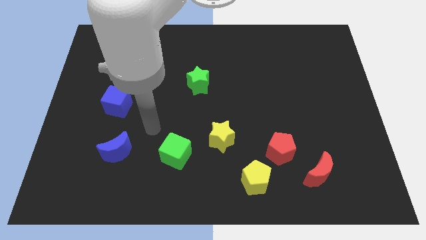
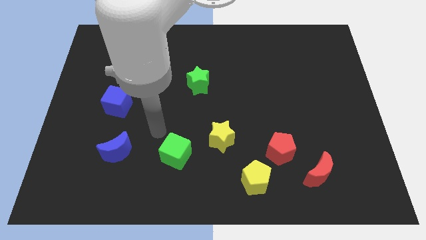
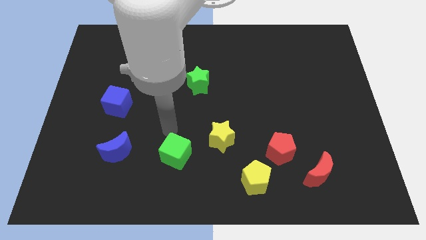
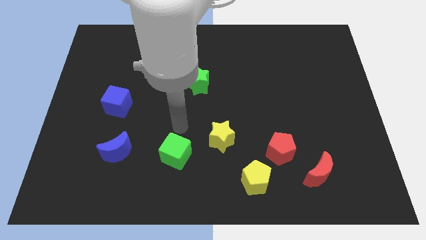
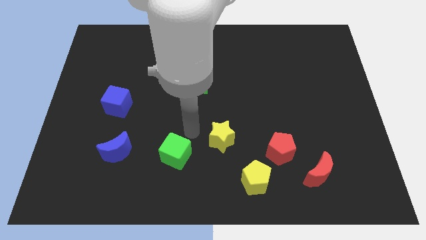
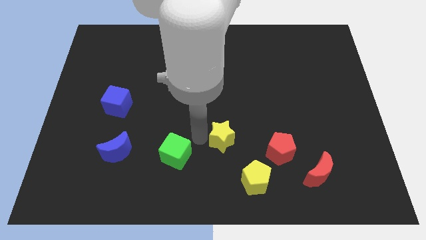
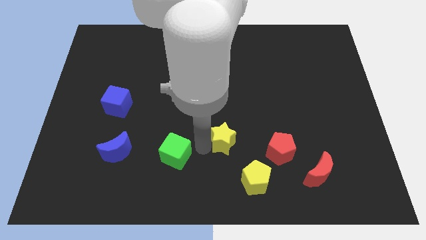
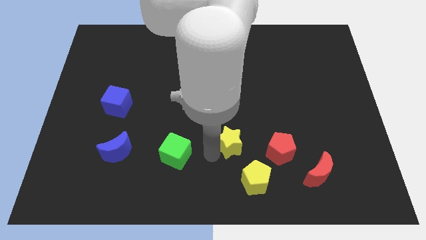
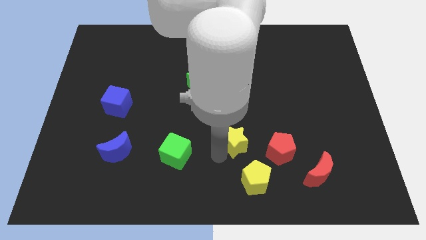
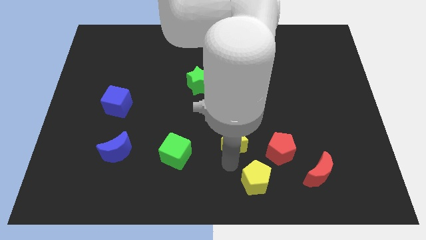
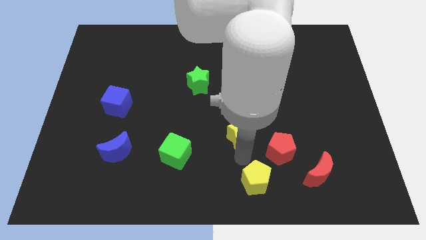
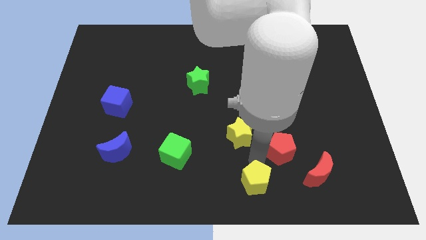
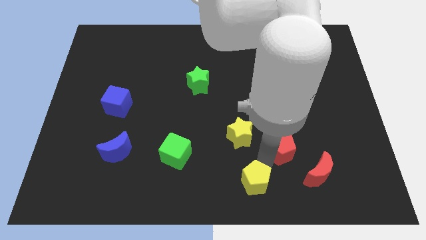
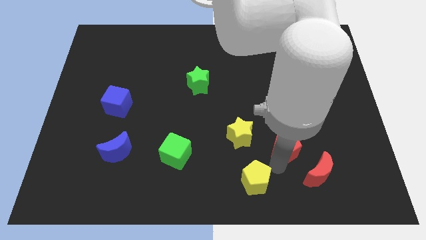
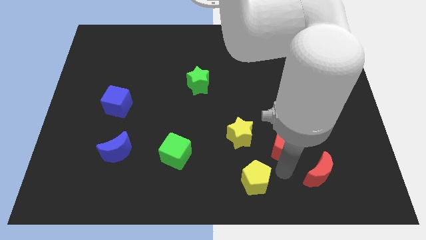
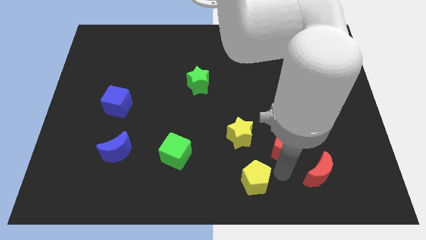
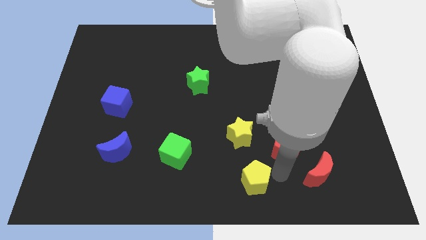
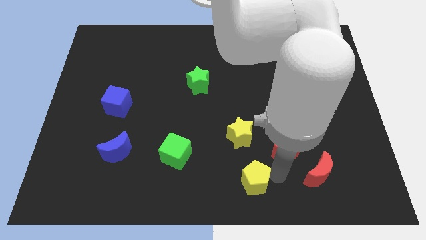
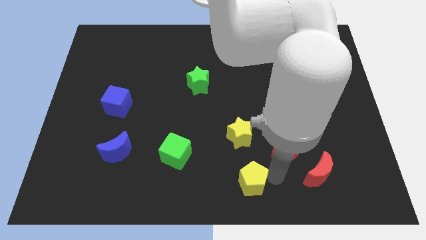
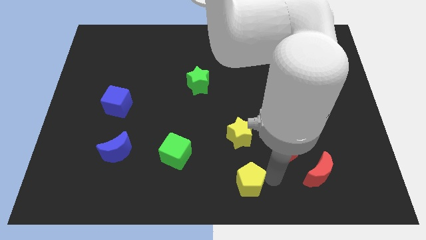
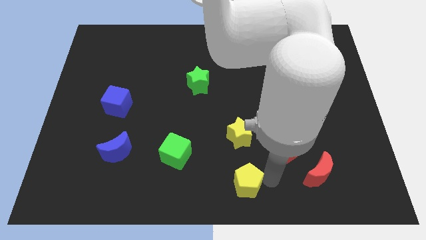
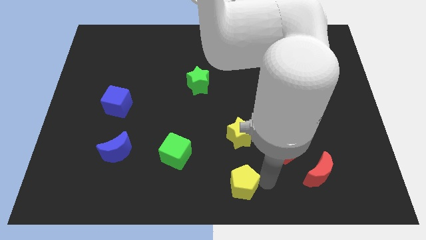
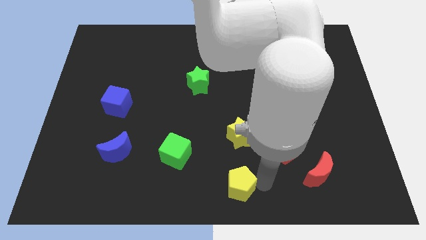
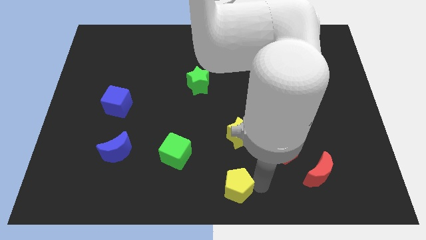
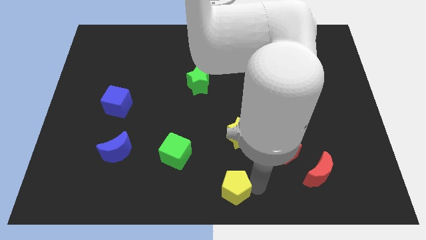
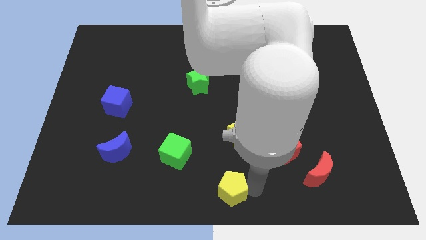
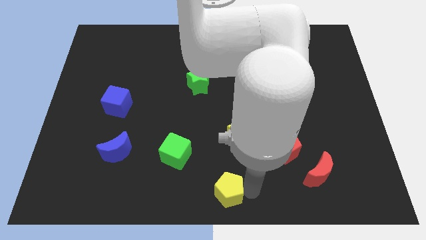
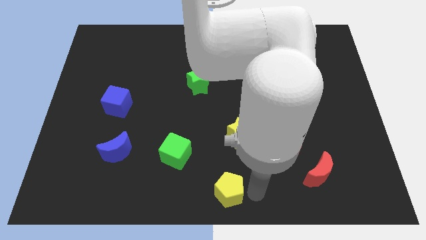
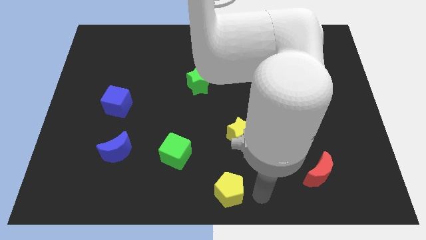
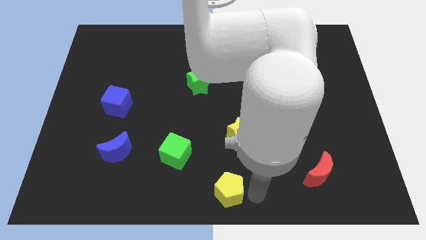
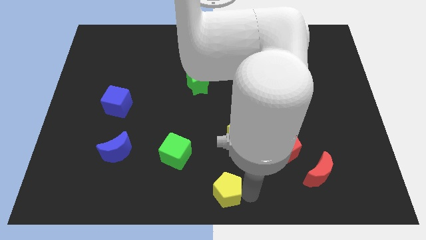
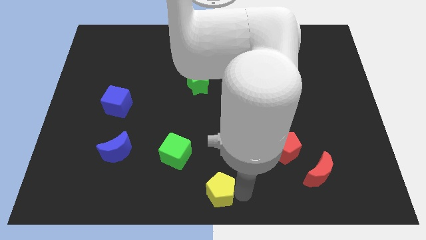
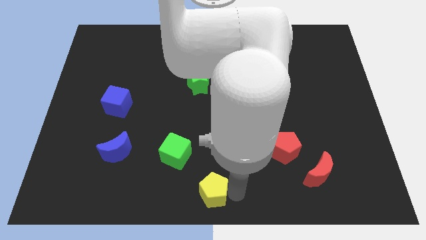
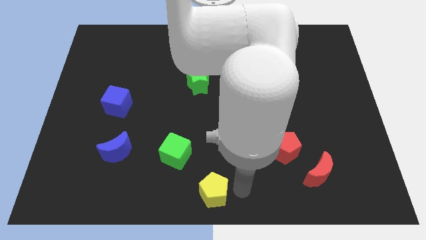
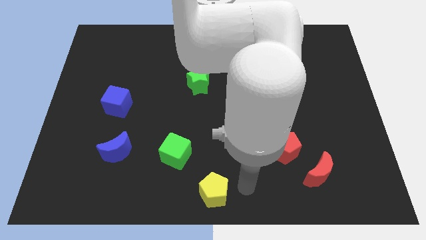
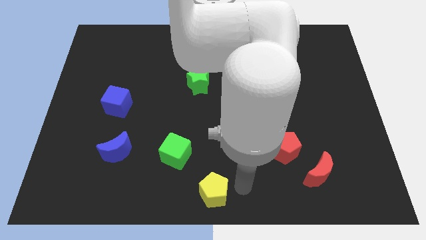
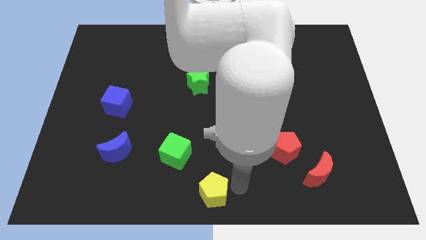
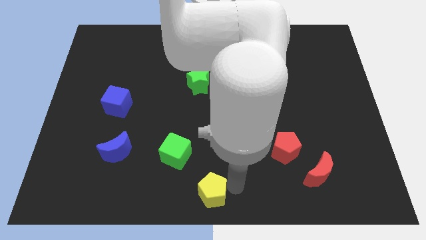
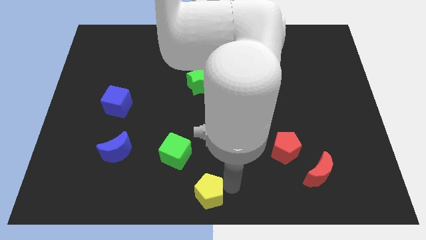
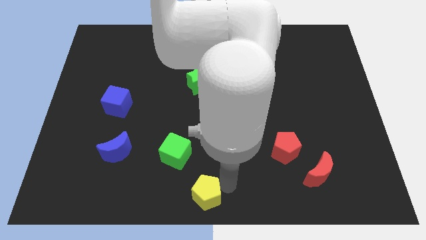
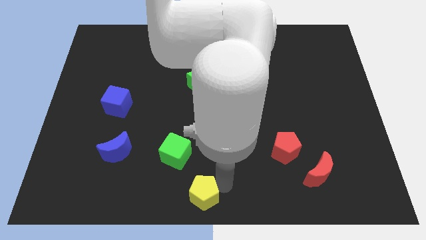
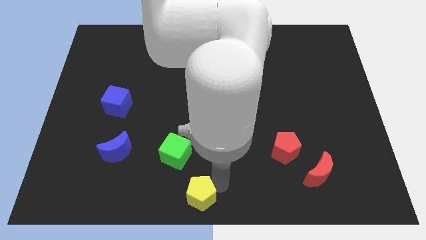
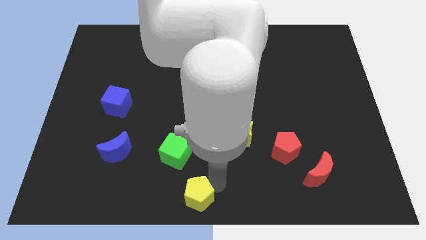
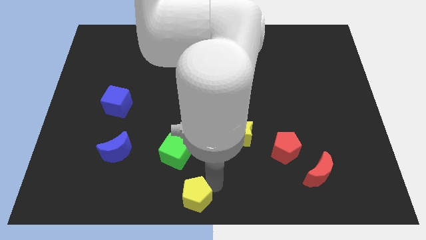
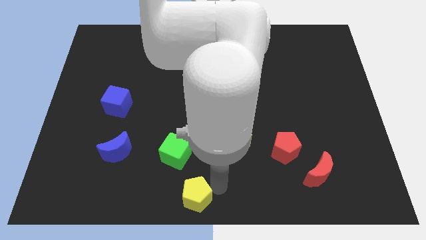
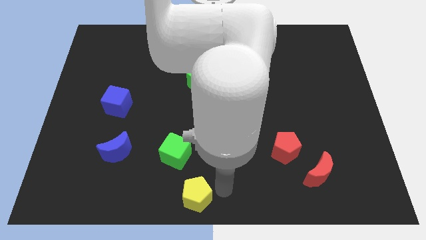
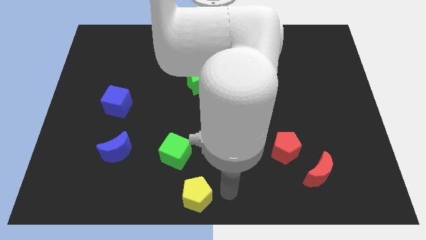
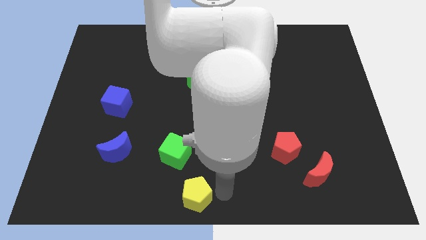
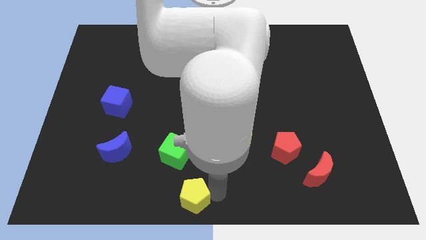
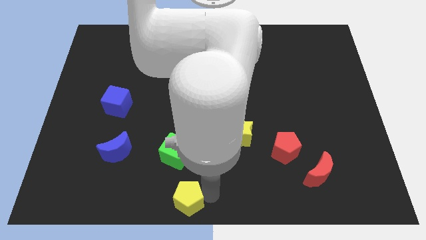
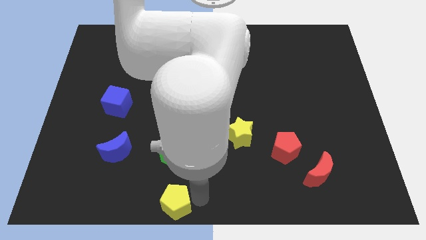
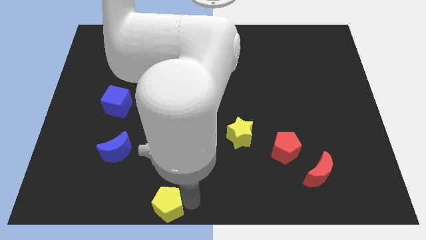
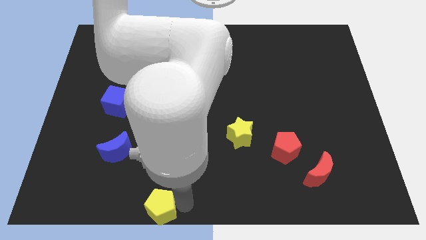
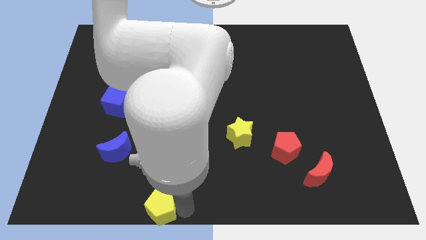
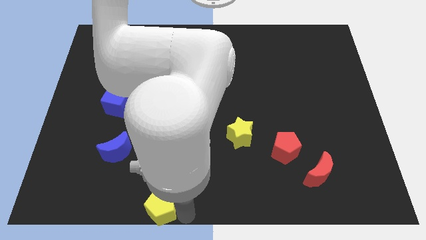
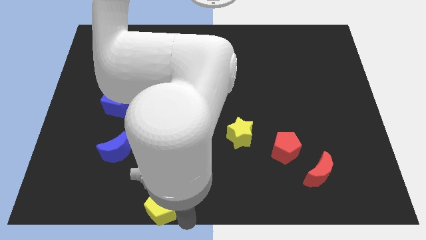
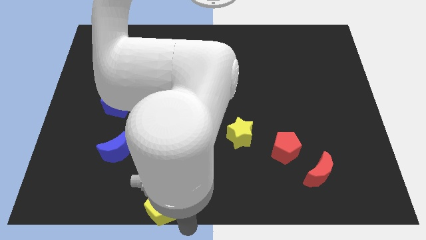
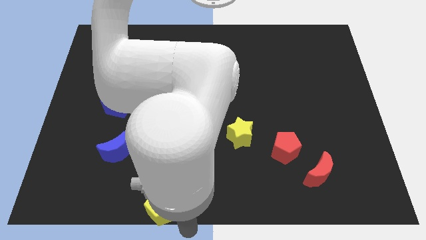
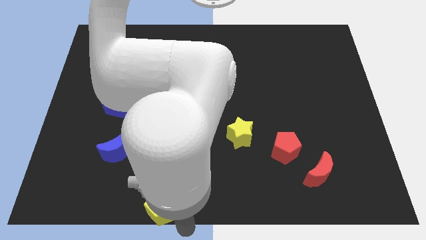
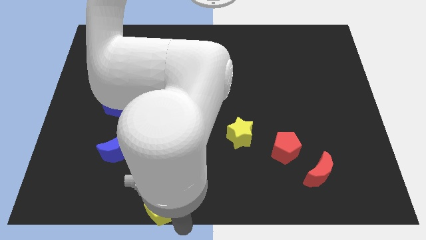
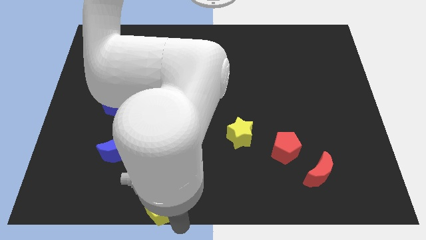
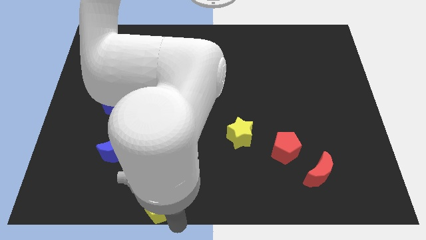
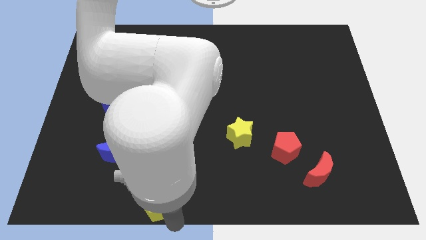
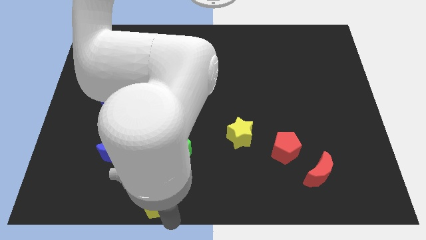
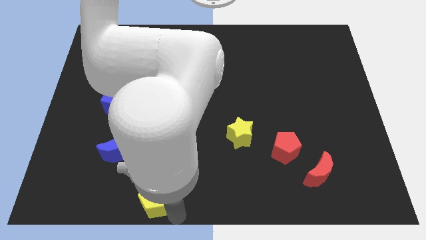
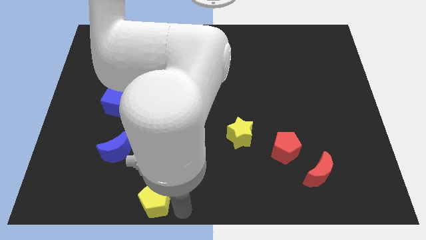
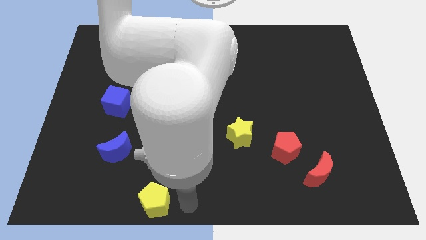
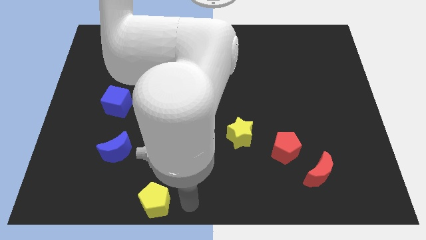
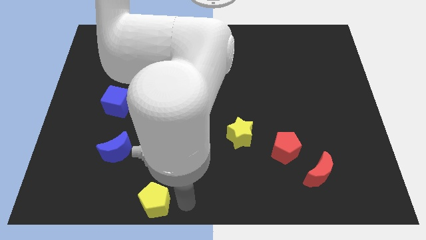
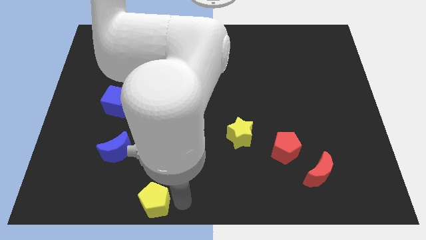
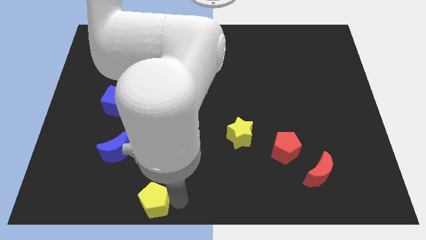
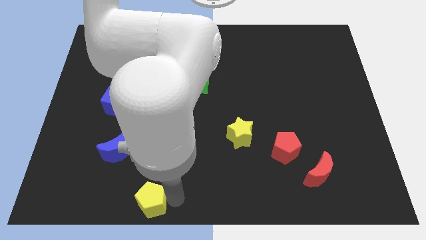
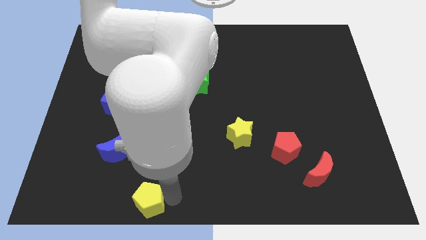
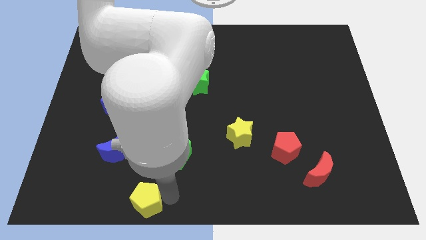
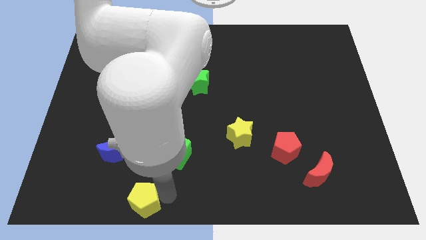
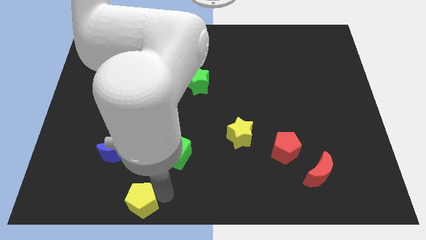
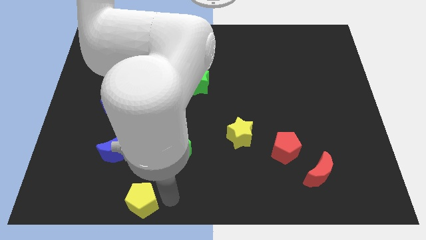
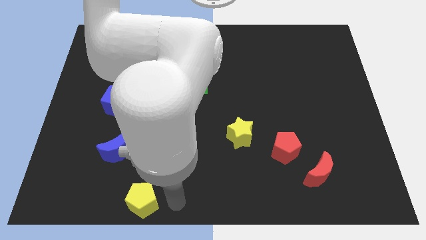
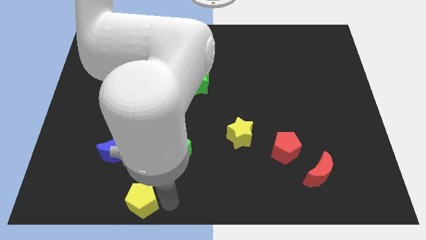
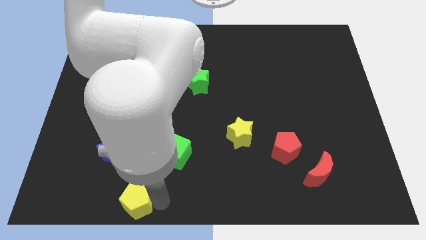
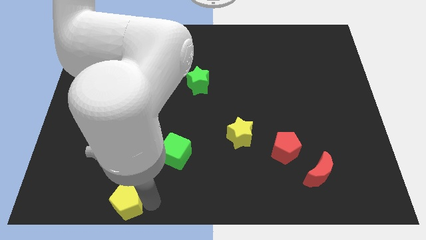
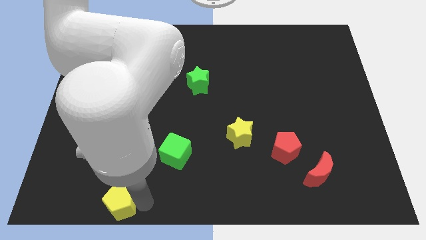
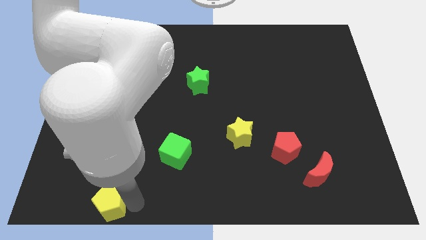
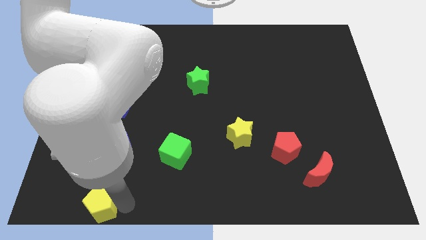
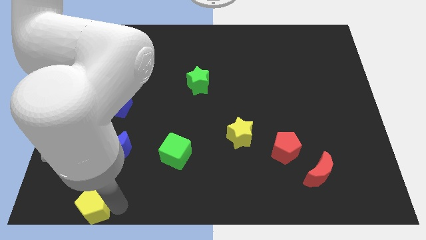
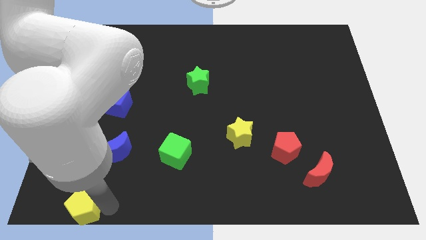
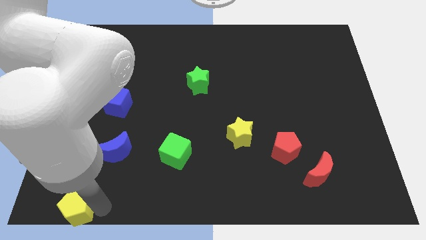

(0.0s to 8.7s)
slide the yellow pentagon to the bottom left corner
